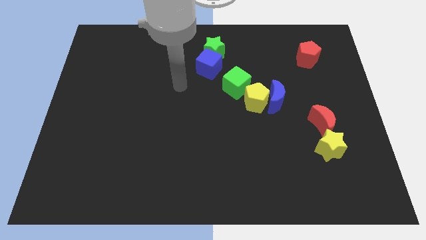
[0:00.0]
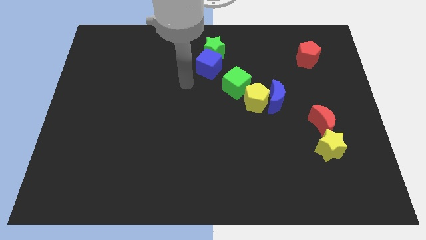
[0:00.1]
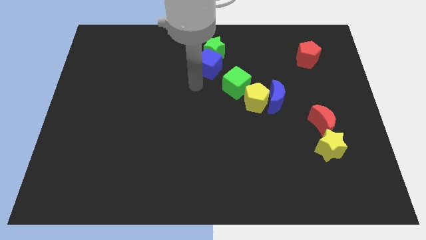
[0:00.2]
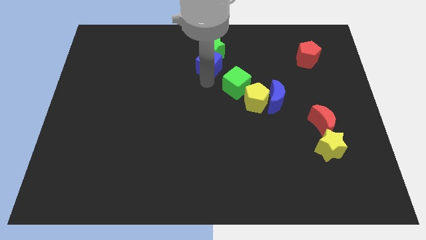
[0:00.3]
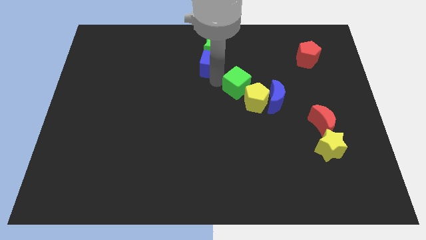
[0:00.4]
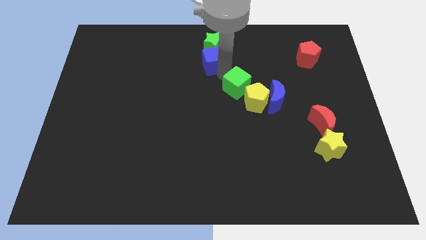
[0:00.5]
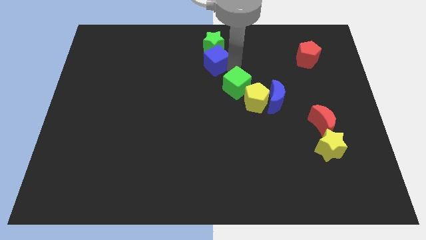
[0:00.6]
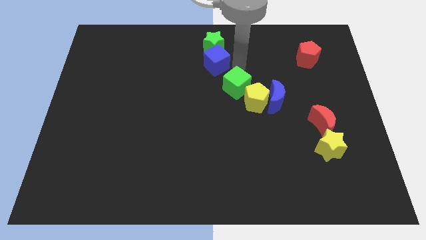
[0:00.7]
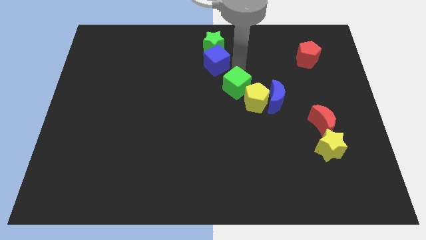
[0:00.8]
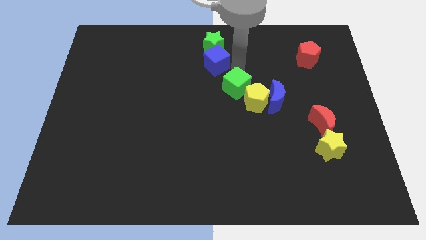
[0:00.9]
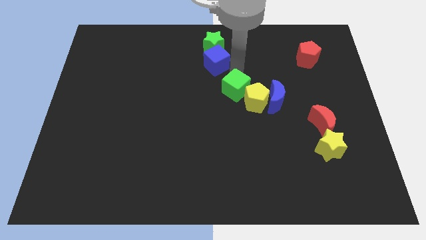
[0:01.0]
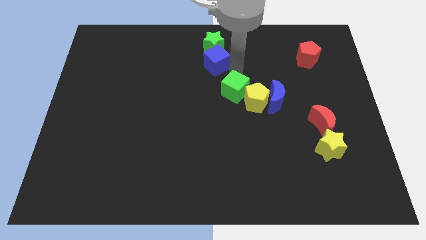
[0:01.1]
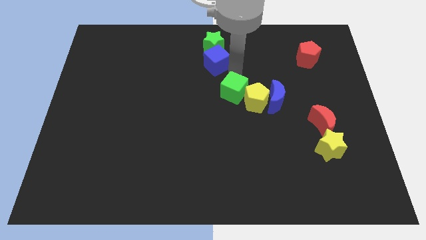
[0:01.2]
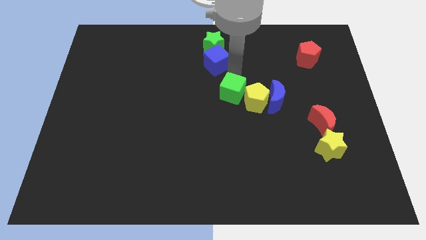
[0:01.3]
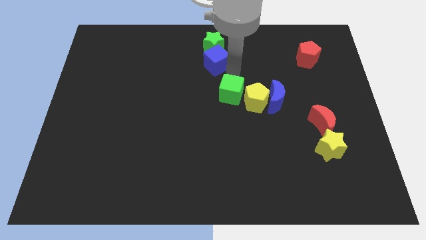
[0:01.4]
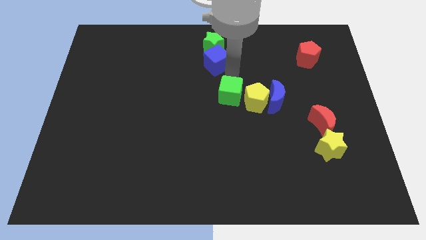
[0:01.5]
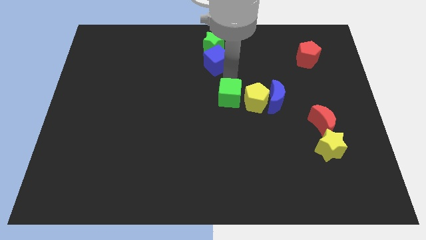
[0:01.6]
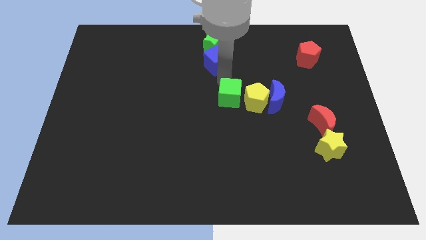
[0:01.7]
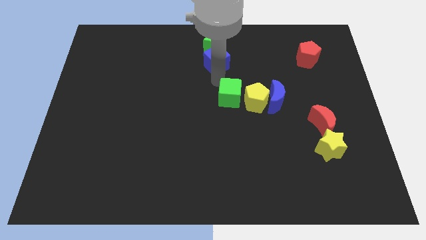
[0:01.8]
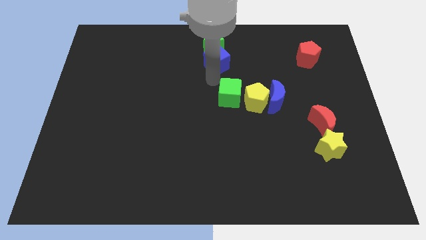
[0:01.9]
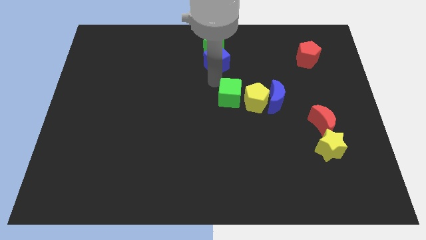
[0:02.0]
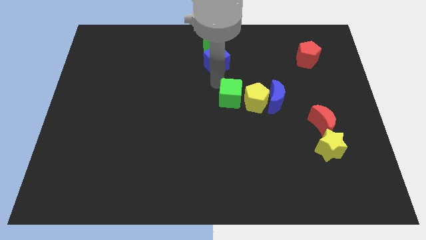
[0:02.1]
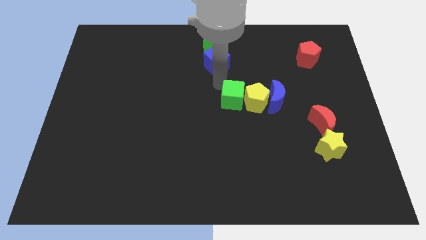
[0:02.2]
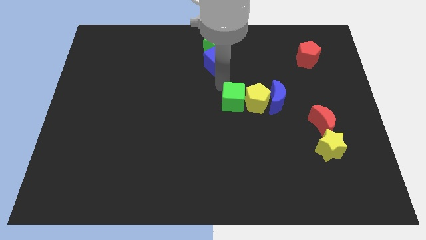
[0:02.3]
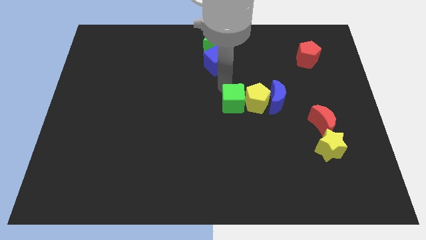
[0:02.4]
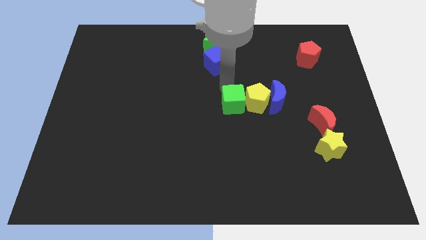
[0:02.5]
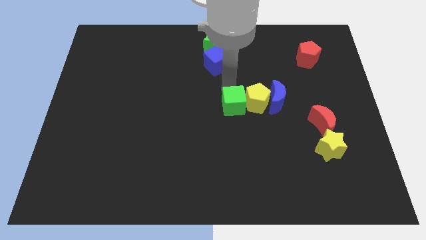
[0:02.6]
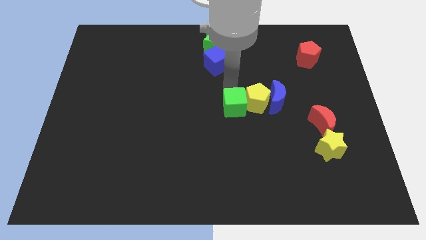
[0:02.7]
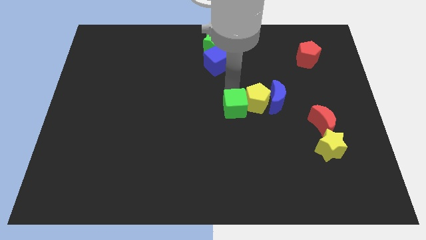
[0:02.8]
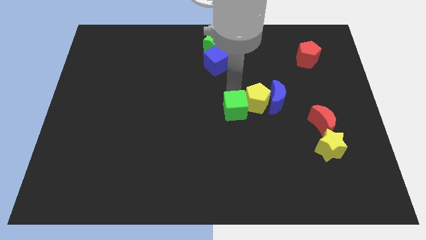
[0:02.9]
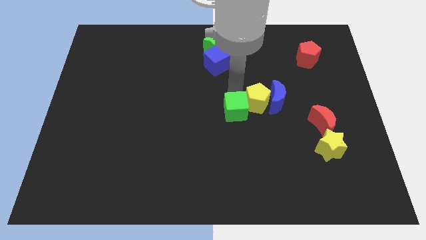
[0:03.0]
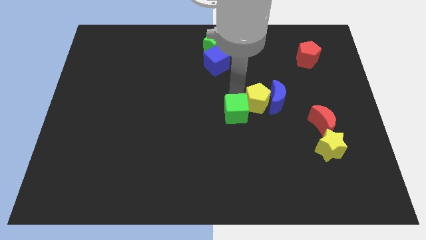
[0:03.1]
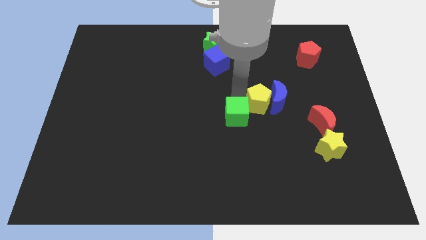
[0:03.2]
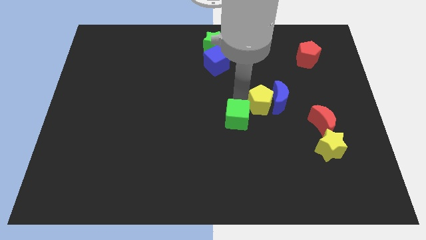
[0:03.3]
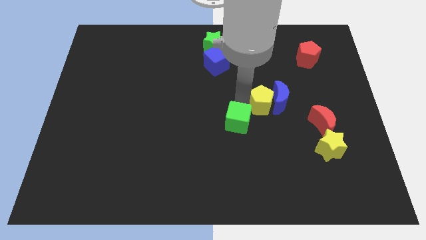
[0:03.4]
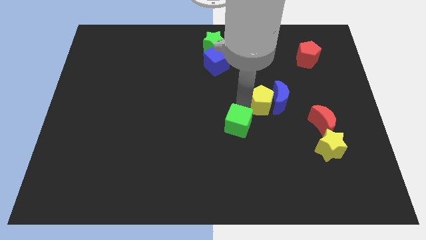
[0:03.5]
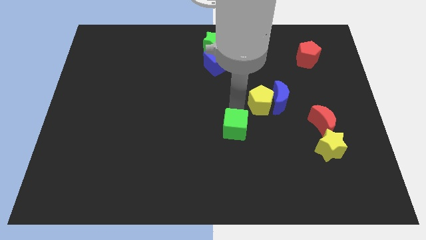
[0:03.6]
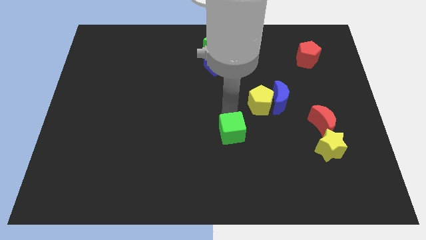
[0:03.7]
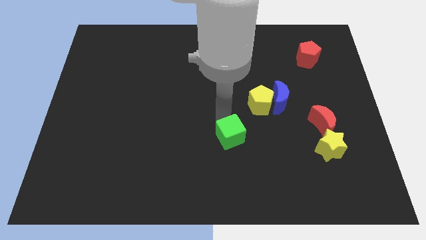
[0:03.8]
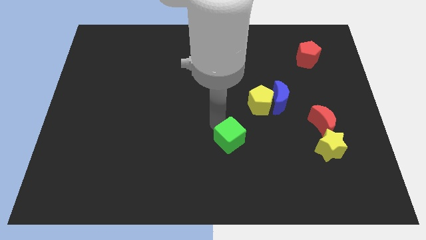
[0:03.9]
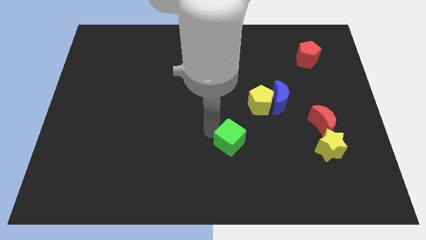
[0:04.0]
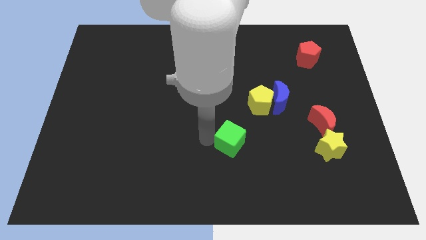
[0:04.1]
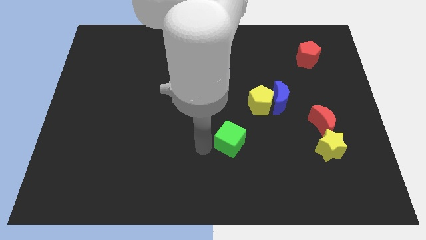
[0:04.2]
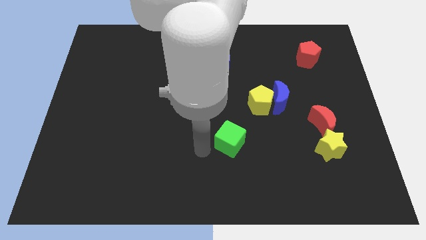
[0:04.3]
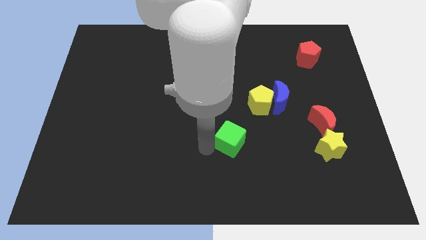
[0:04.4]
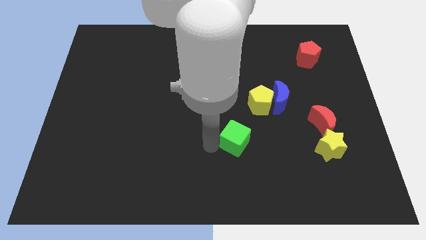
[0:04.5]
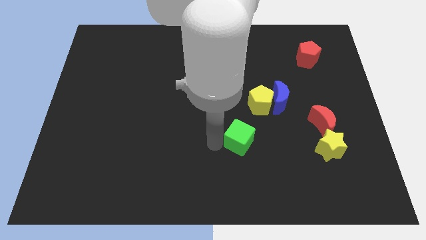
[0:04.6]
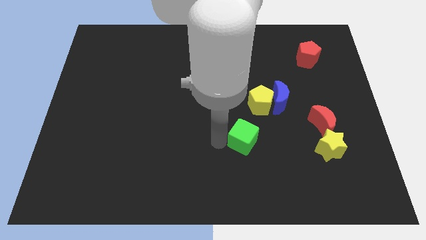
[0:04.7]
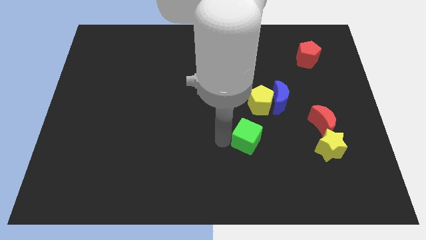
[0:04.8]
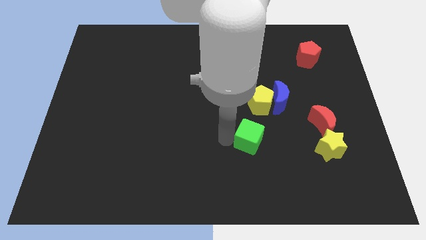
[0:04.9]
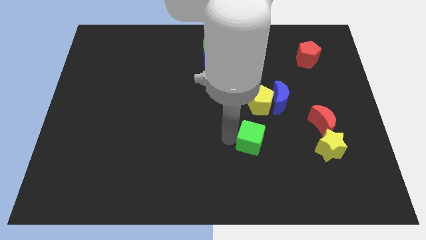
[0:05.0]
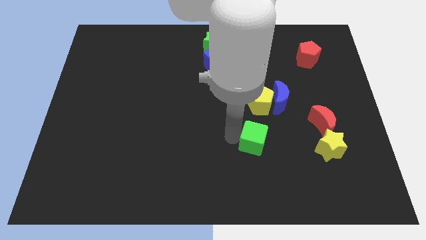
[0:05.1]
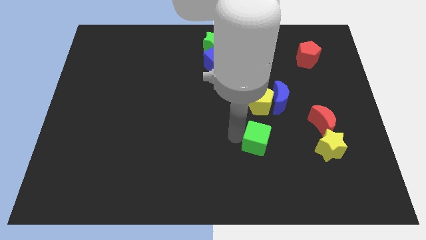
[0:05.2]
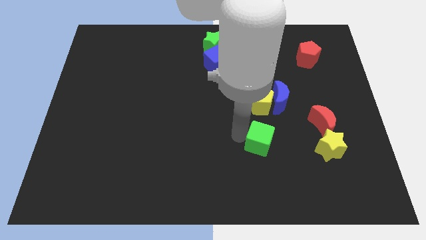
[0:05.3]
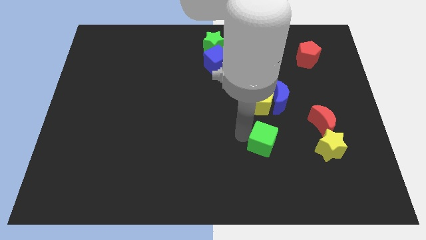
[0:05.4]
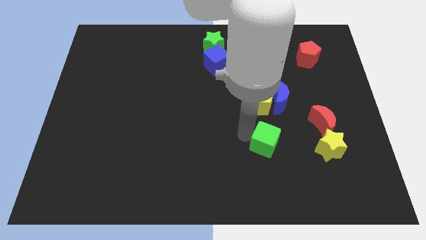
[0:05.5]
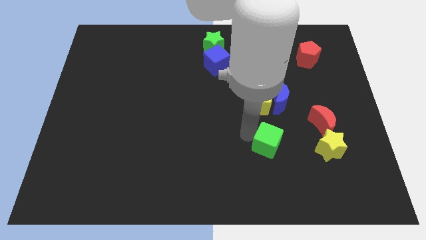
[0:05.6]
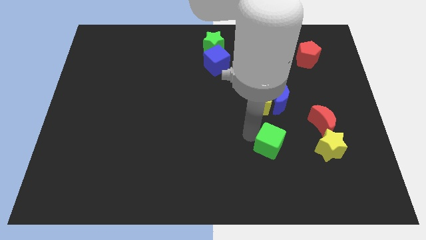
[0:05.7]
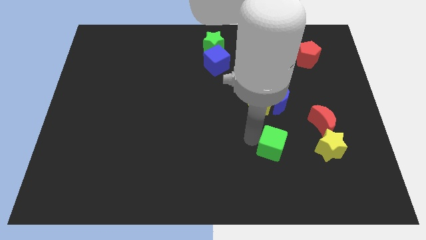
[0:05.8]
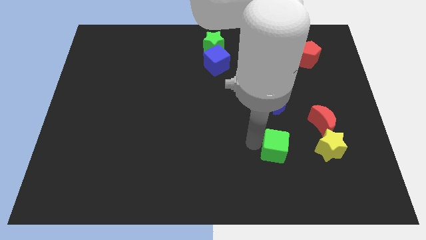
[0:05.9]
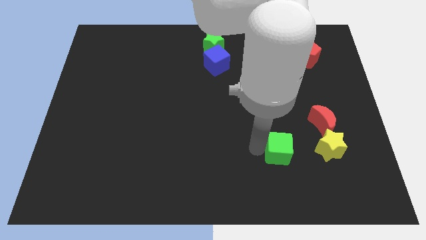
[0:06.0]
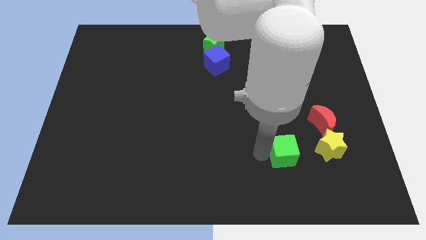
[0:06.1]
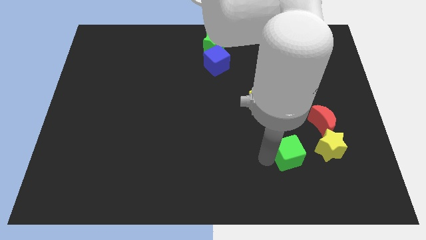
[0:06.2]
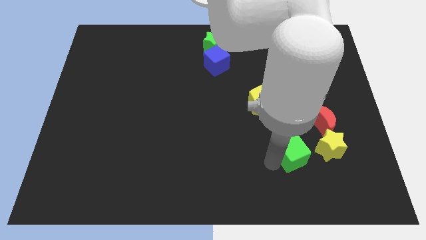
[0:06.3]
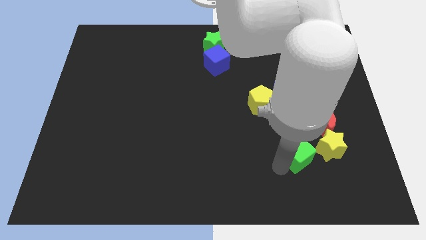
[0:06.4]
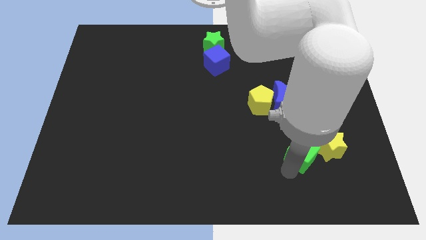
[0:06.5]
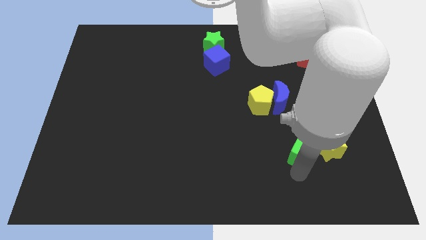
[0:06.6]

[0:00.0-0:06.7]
slide the green cube close to the yellow star
